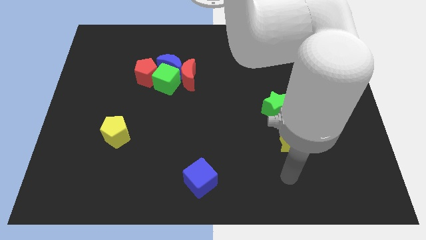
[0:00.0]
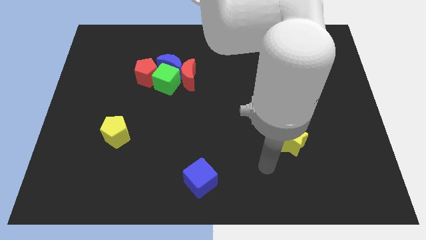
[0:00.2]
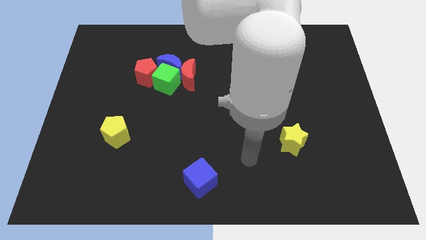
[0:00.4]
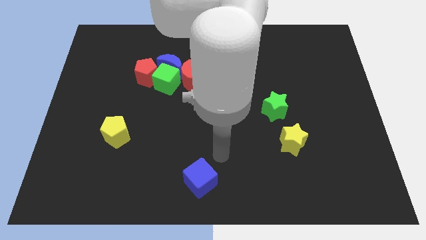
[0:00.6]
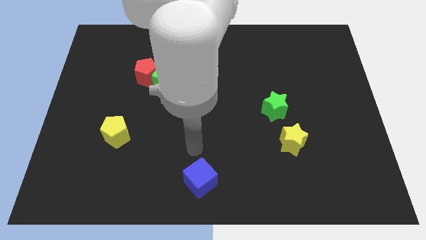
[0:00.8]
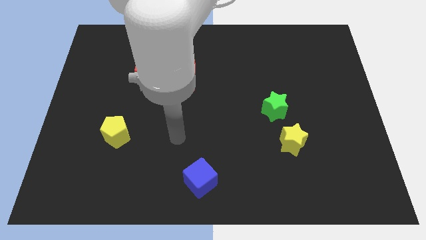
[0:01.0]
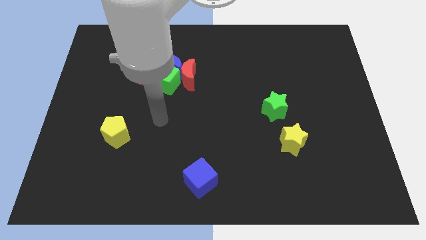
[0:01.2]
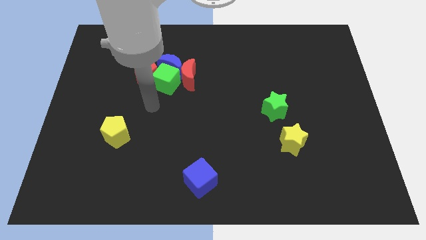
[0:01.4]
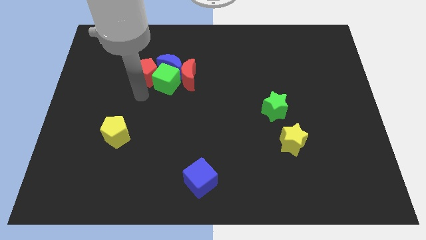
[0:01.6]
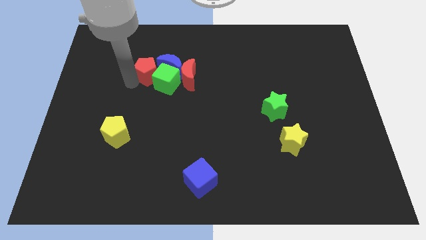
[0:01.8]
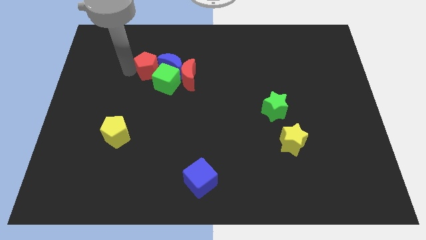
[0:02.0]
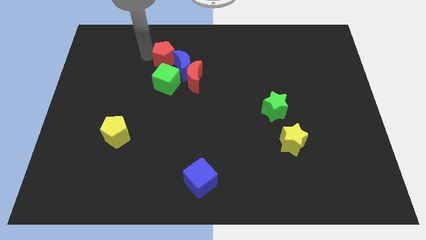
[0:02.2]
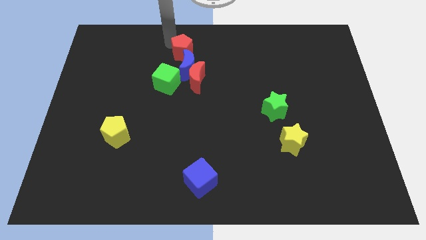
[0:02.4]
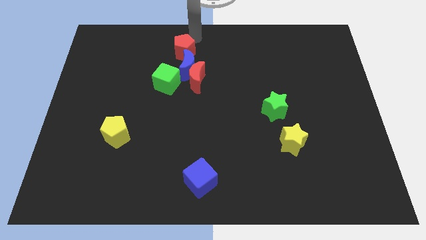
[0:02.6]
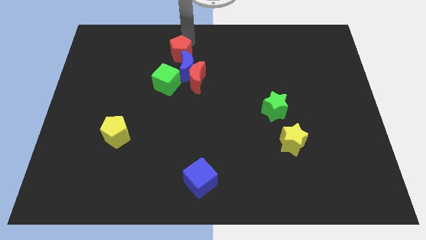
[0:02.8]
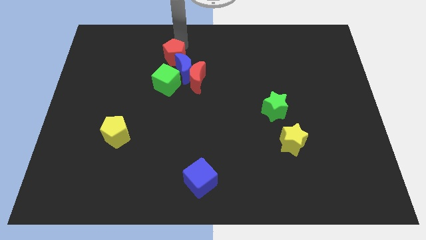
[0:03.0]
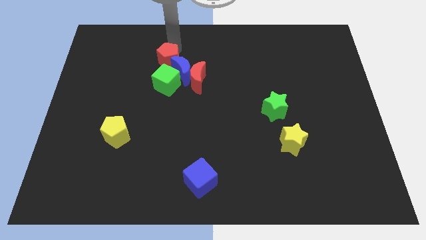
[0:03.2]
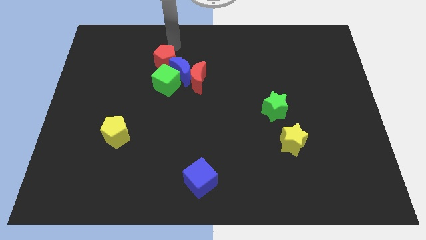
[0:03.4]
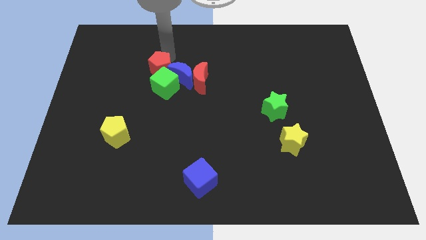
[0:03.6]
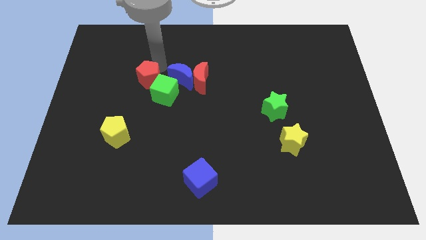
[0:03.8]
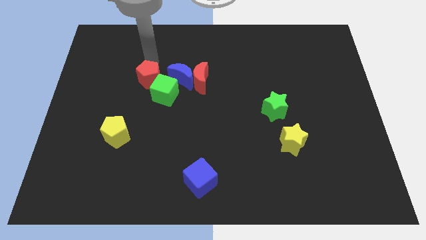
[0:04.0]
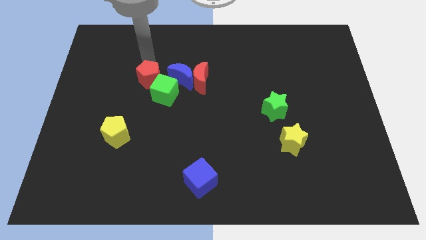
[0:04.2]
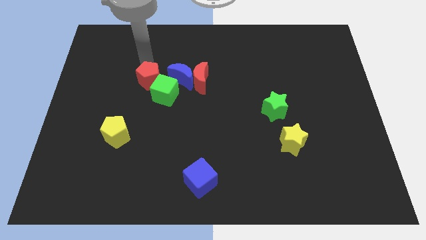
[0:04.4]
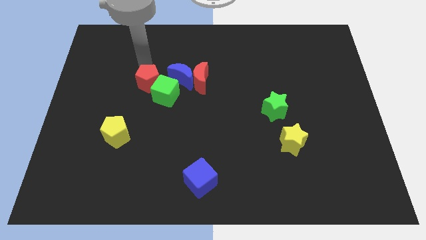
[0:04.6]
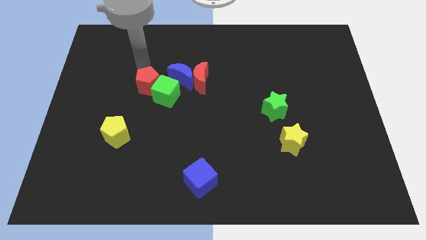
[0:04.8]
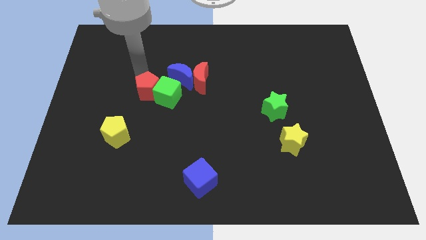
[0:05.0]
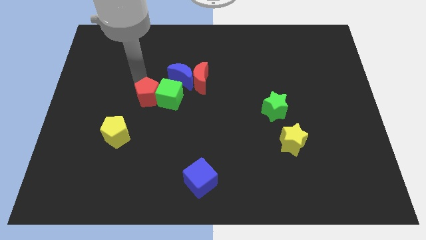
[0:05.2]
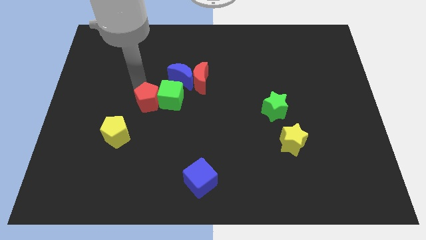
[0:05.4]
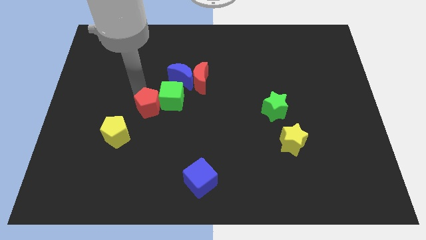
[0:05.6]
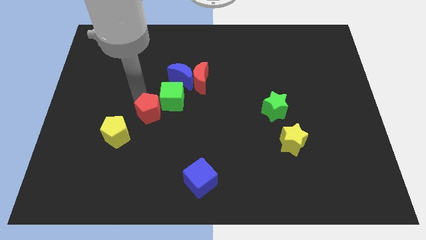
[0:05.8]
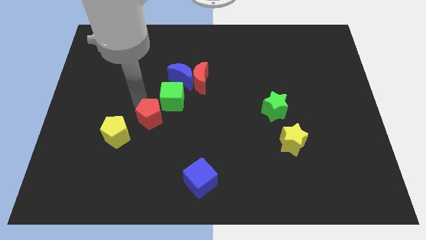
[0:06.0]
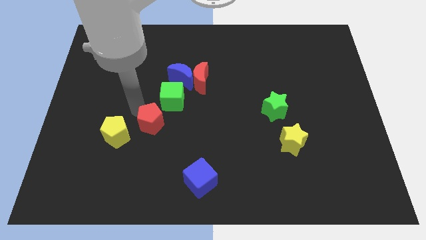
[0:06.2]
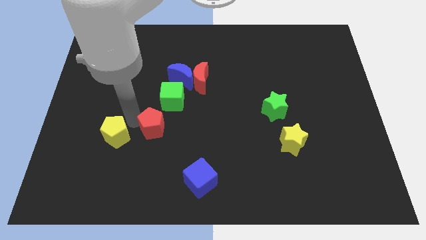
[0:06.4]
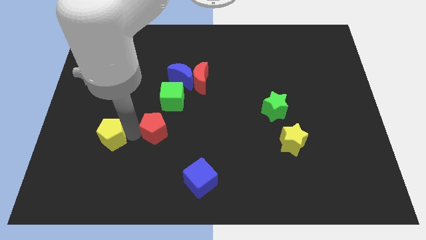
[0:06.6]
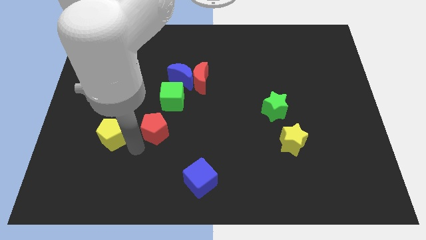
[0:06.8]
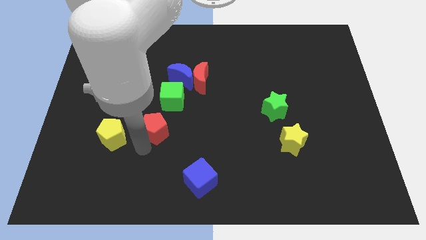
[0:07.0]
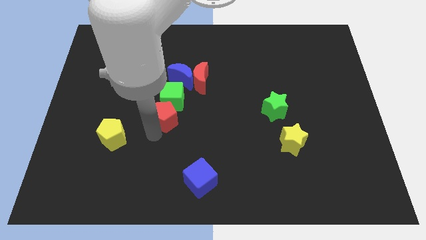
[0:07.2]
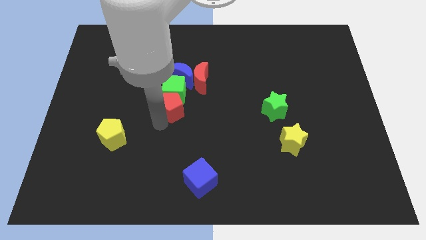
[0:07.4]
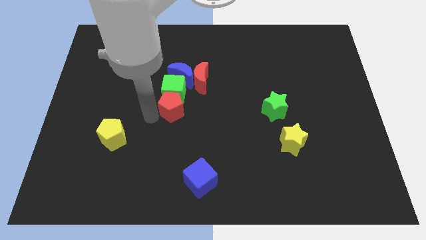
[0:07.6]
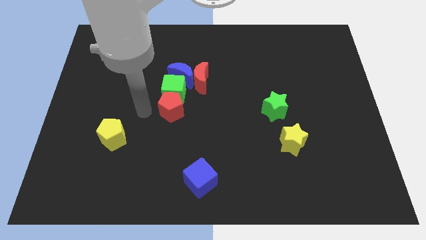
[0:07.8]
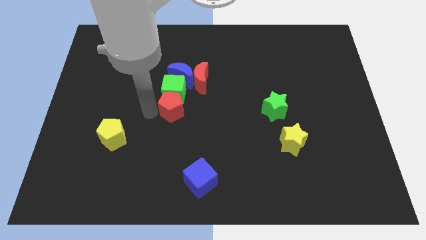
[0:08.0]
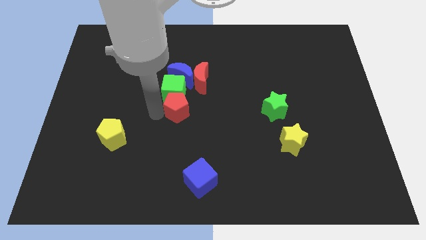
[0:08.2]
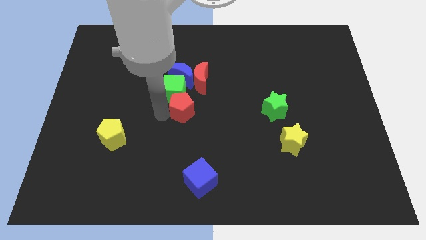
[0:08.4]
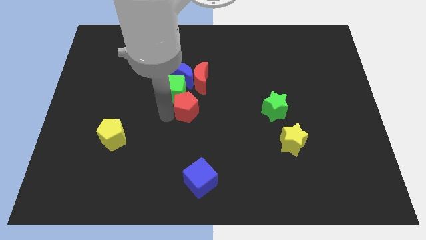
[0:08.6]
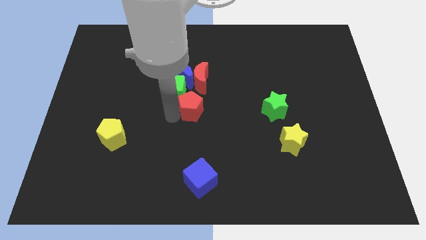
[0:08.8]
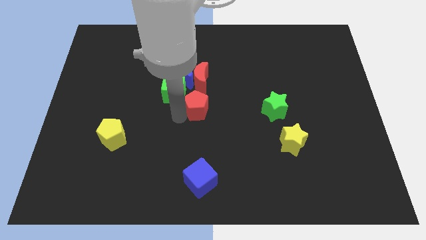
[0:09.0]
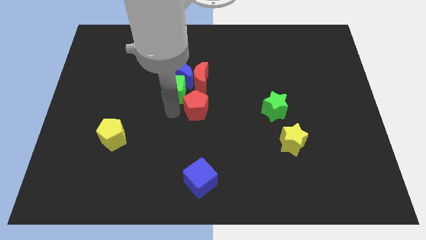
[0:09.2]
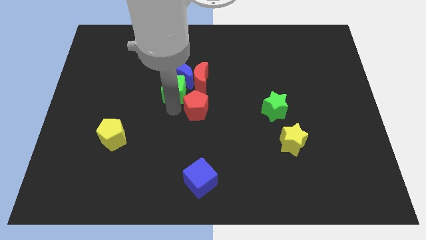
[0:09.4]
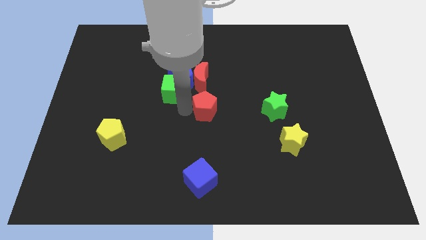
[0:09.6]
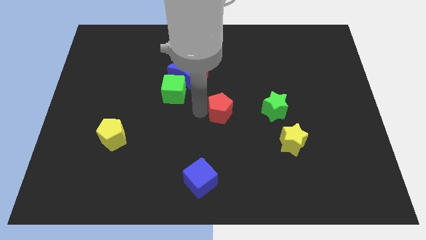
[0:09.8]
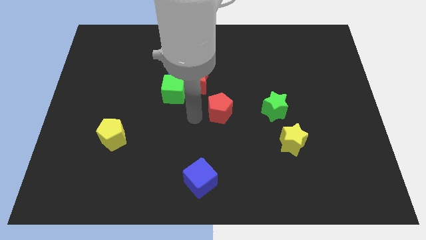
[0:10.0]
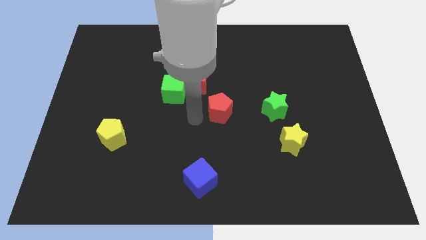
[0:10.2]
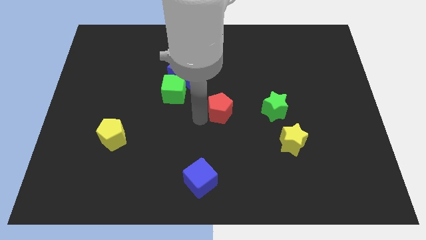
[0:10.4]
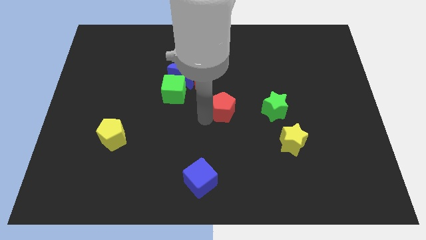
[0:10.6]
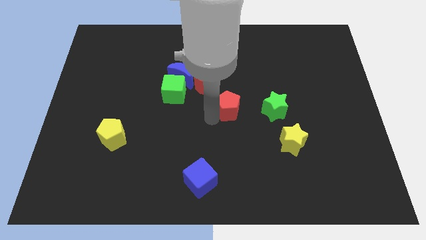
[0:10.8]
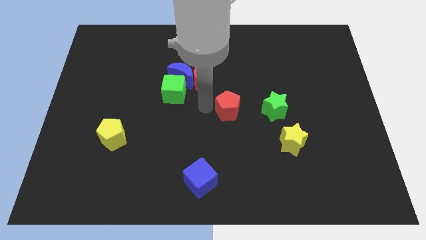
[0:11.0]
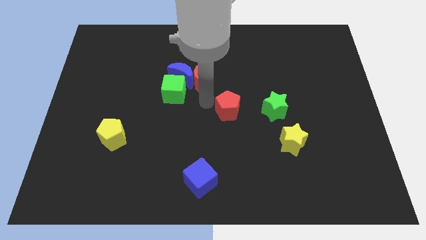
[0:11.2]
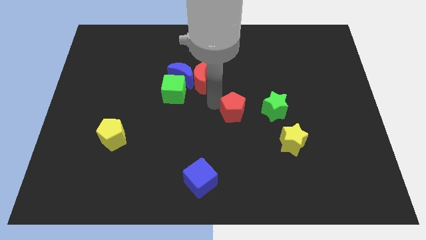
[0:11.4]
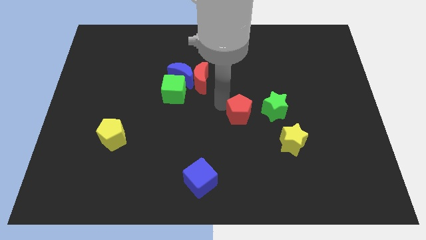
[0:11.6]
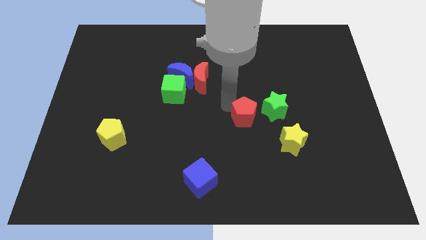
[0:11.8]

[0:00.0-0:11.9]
push the red pentagon to the top left side of the yellow star
